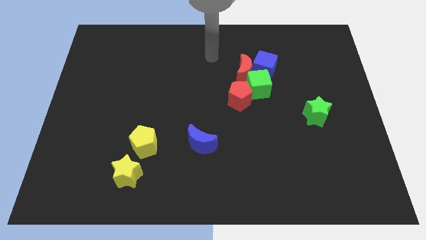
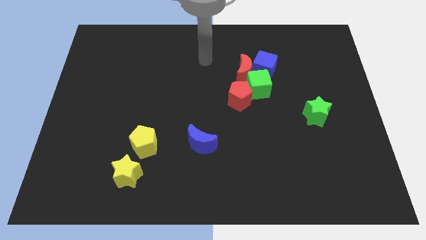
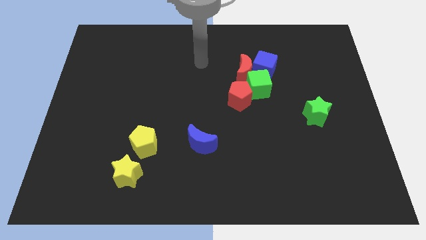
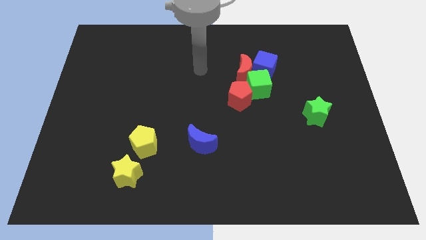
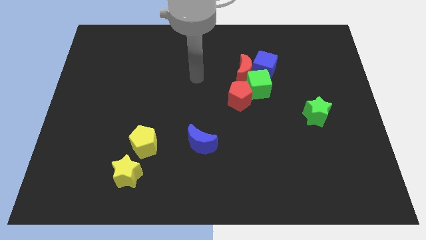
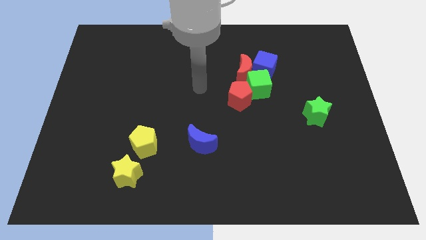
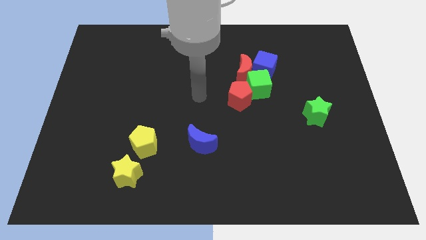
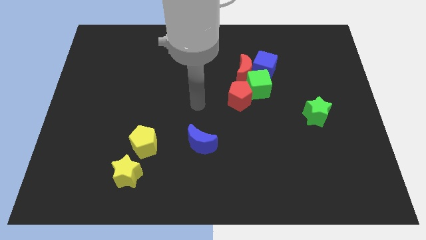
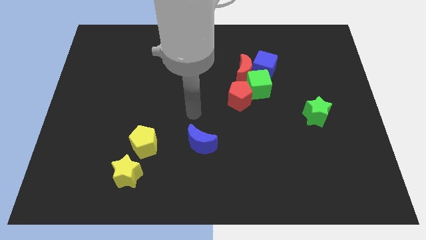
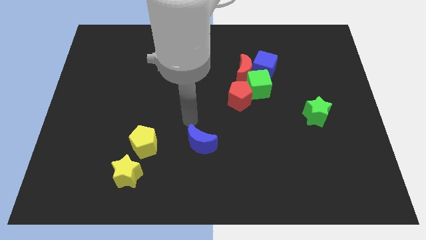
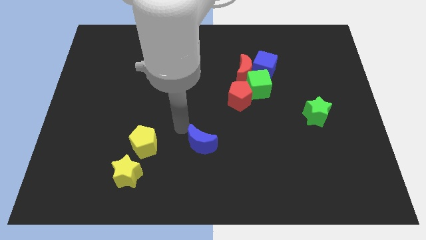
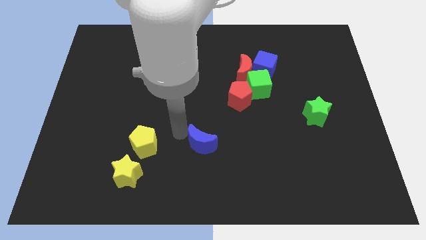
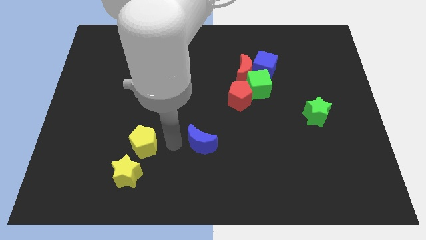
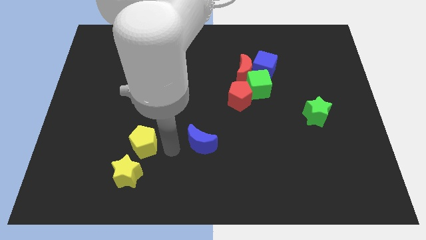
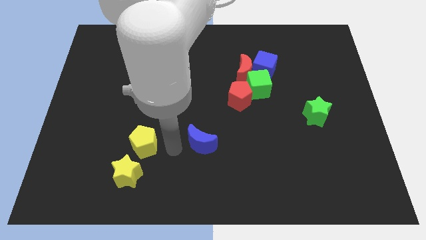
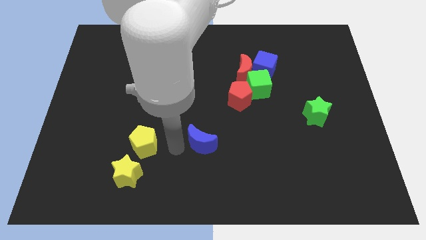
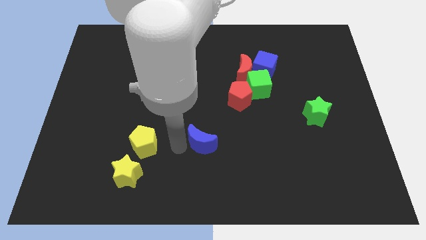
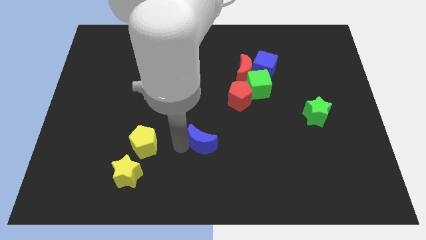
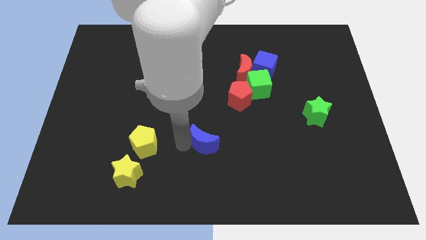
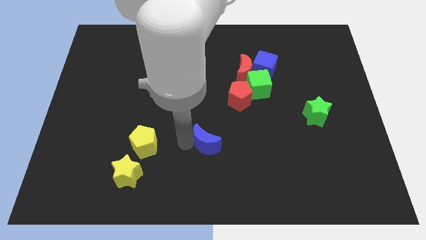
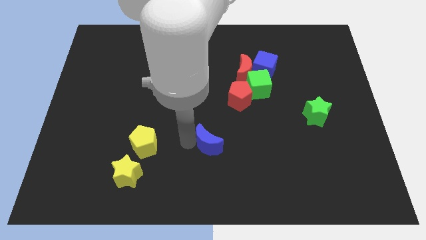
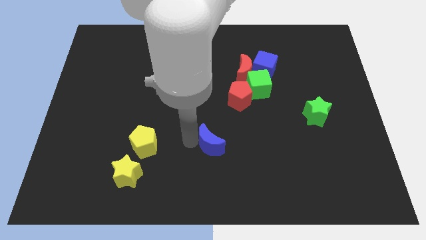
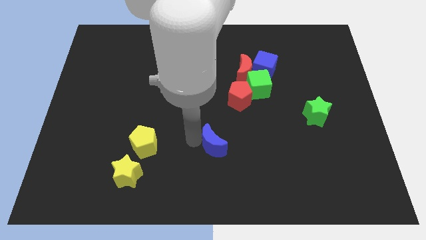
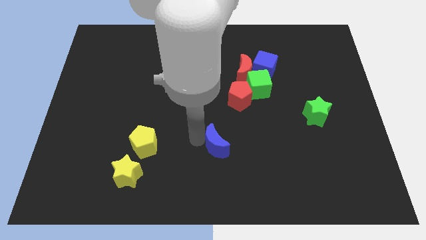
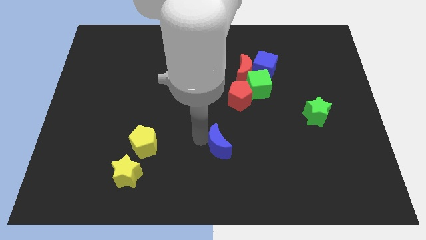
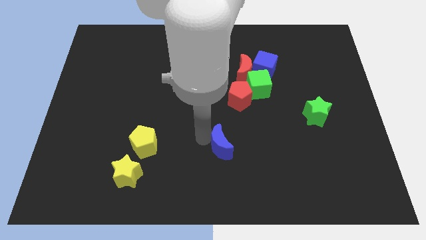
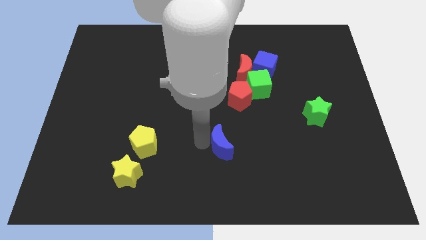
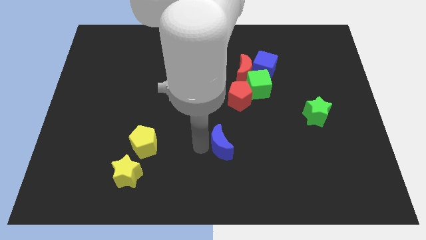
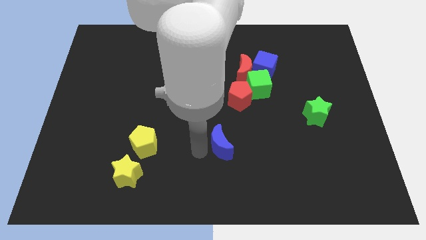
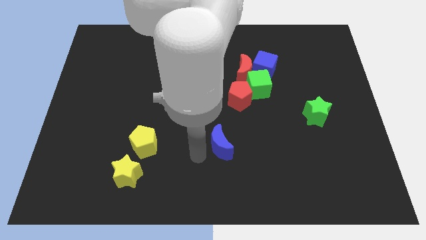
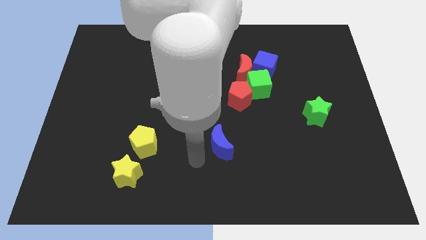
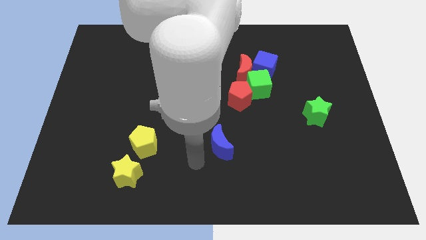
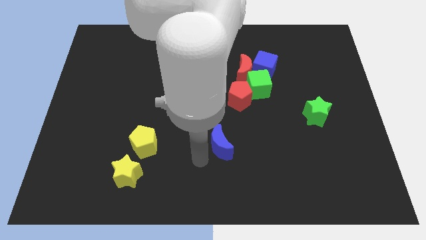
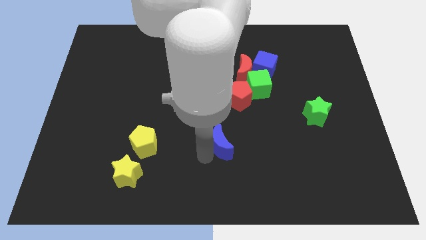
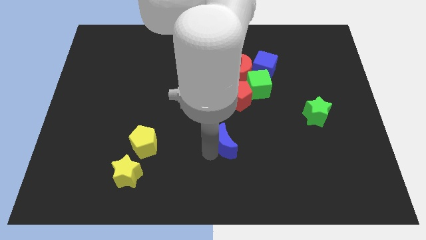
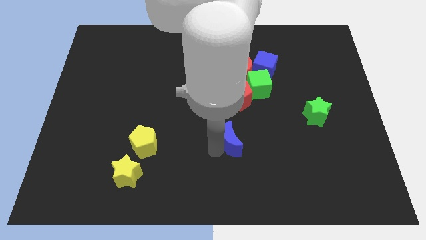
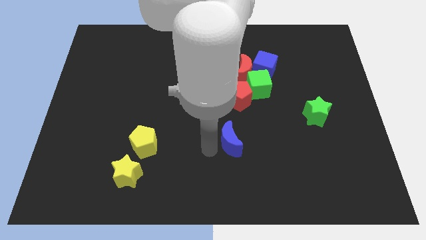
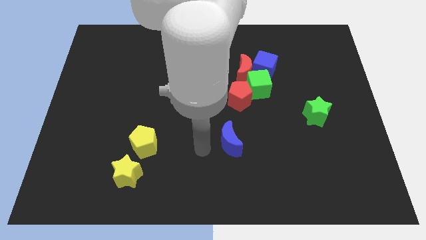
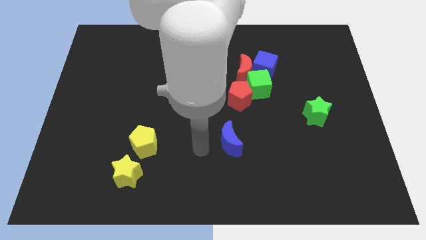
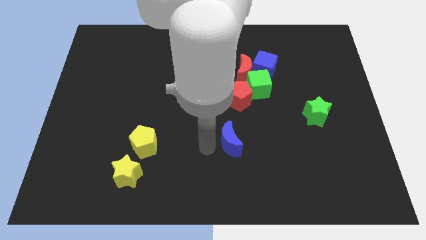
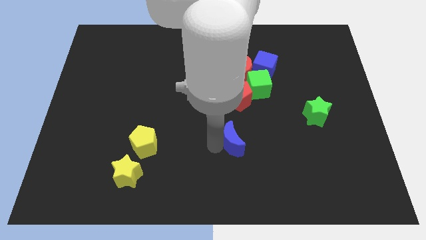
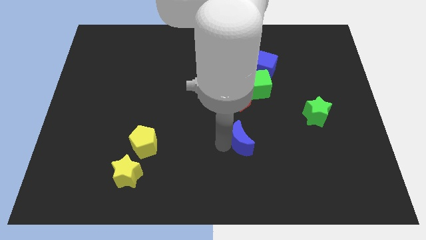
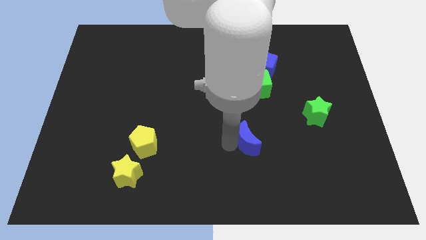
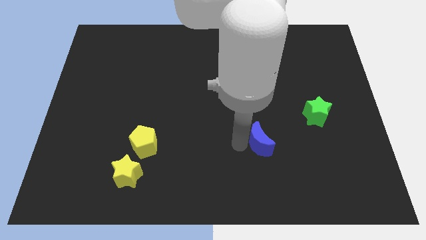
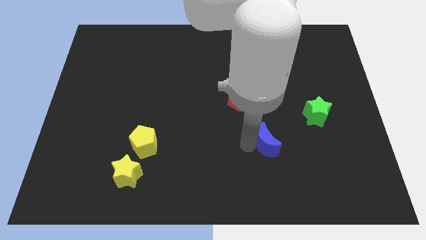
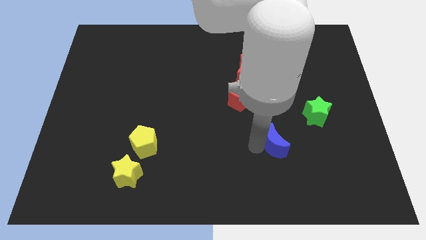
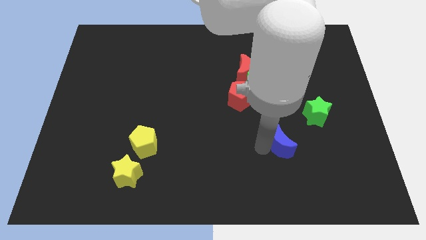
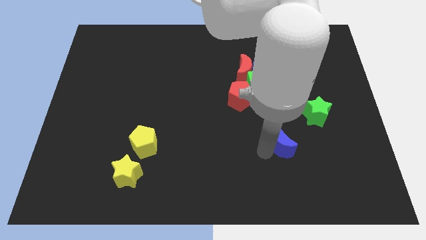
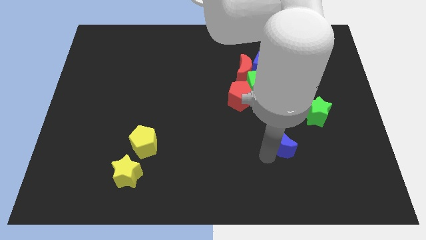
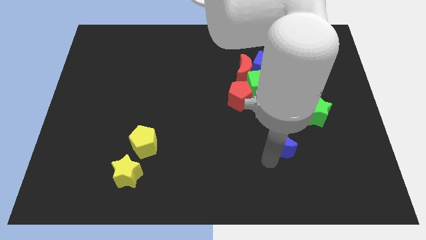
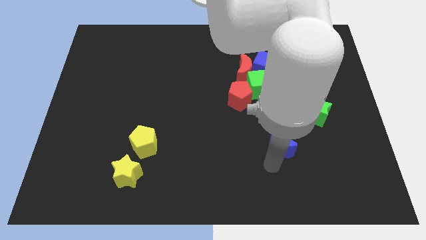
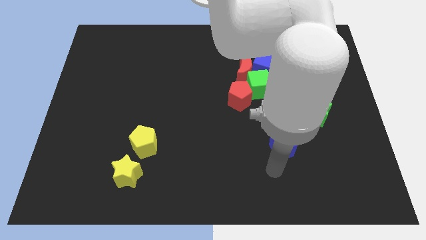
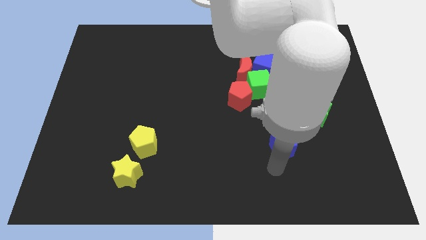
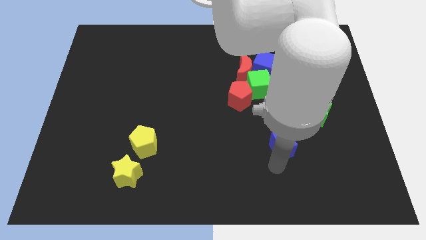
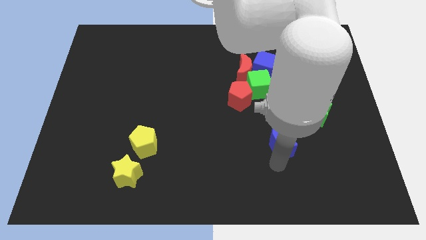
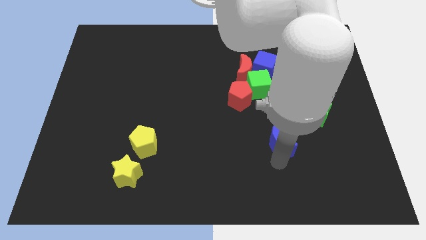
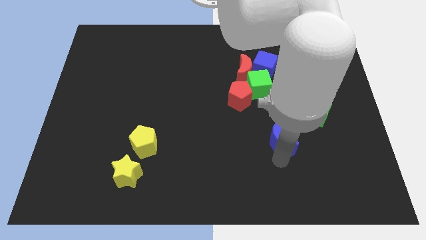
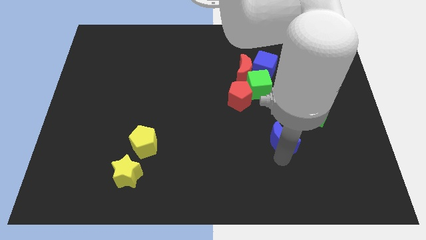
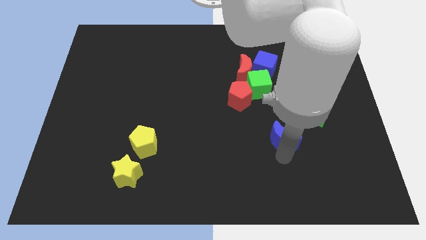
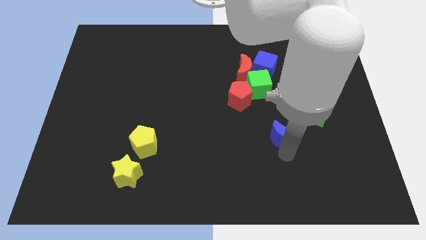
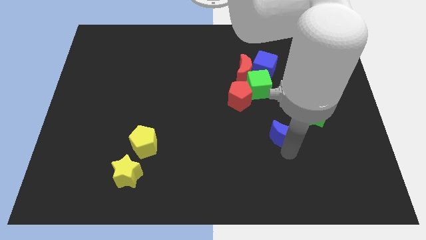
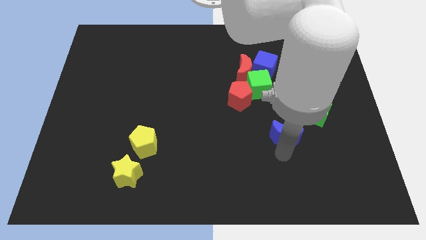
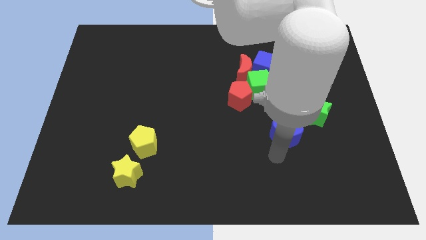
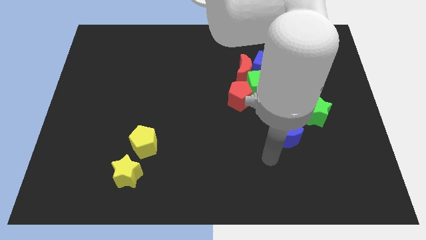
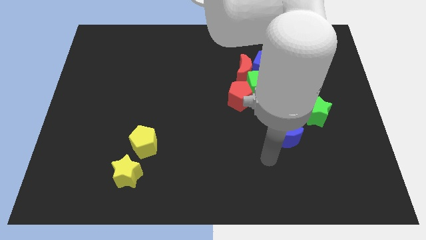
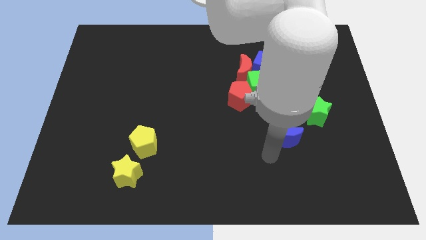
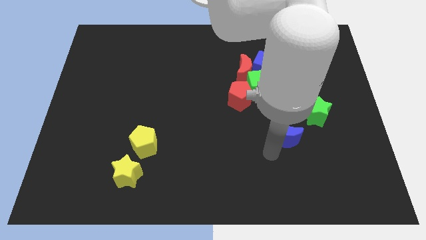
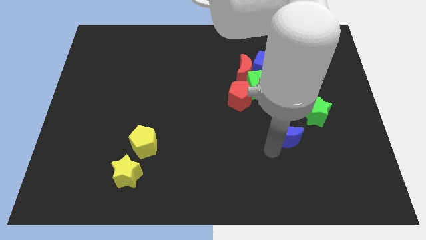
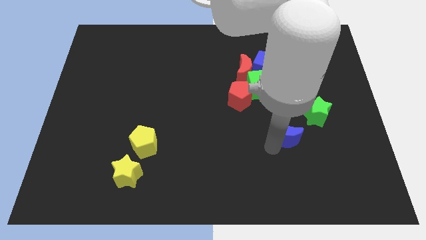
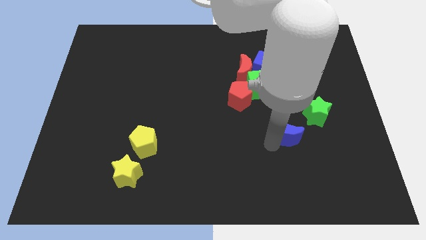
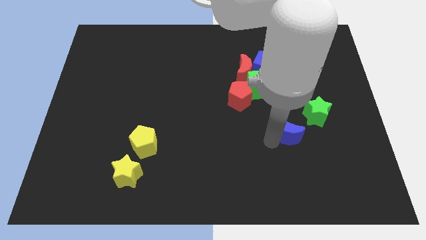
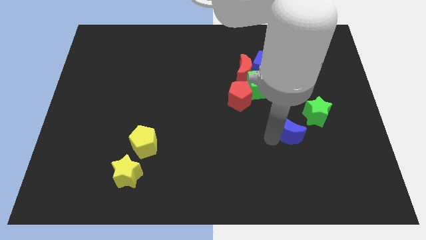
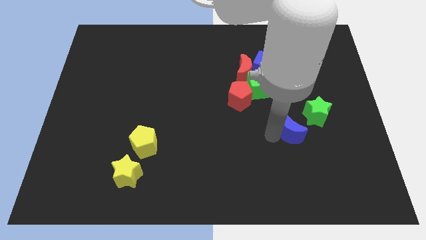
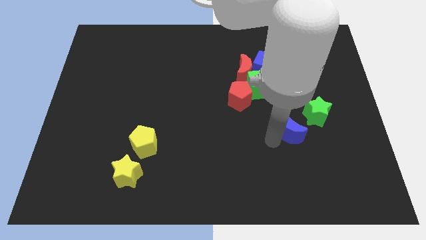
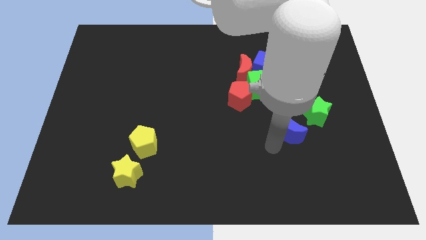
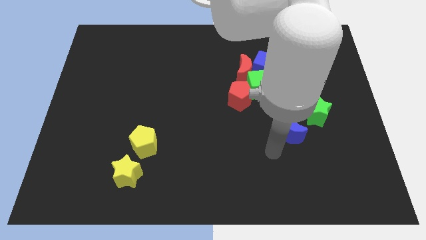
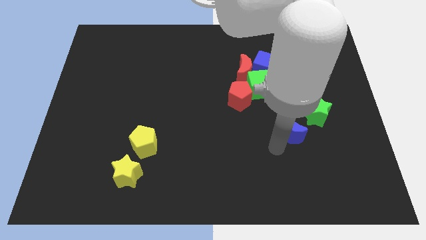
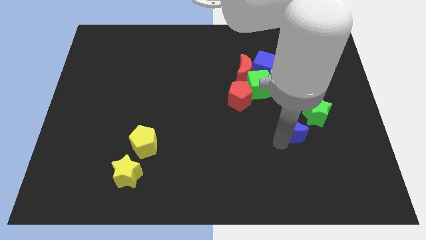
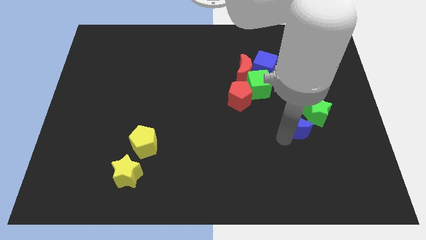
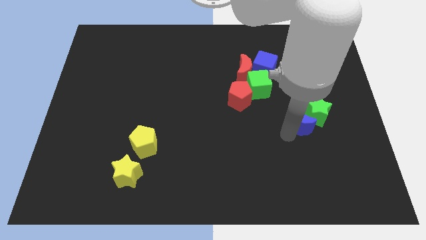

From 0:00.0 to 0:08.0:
push the blue moon towards the green star
